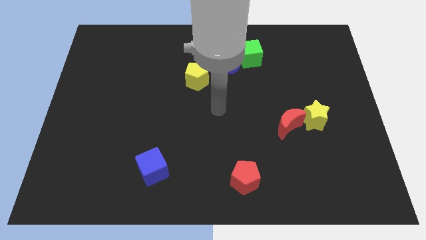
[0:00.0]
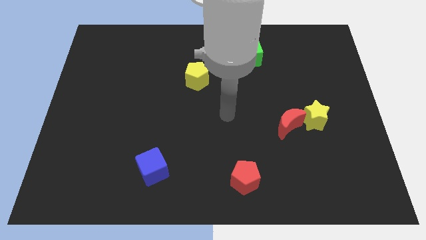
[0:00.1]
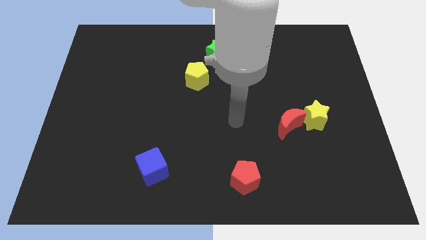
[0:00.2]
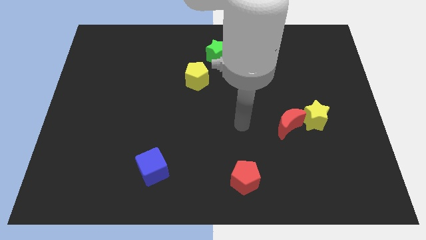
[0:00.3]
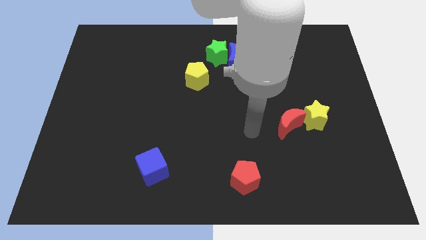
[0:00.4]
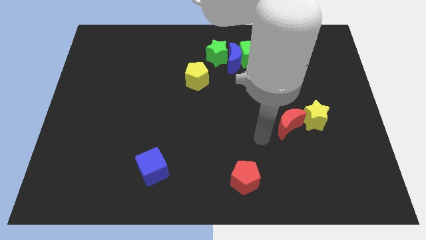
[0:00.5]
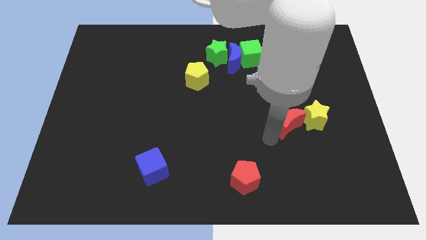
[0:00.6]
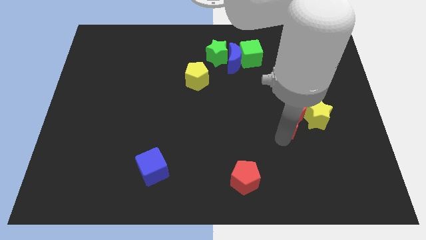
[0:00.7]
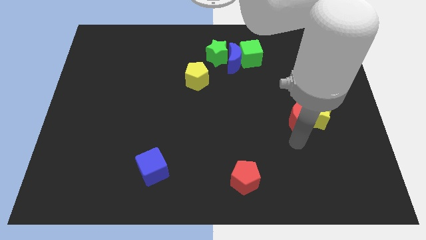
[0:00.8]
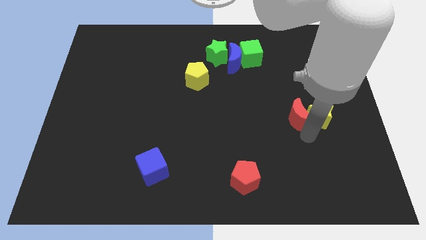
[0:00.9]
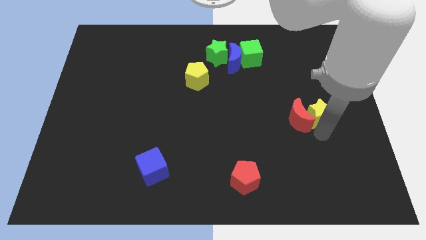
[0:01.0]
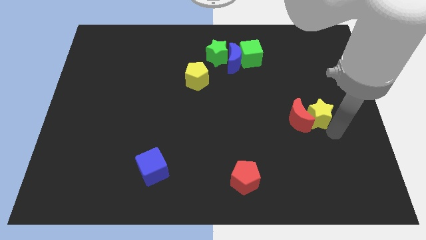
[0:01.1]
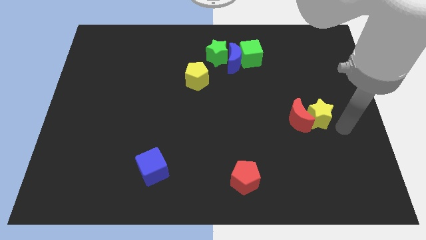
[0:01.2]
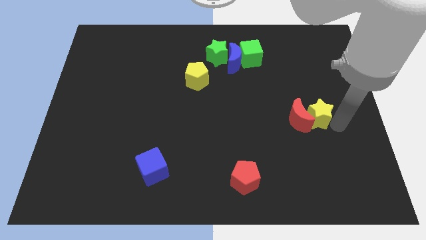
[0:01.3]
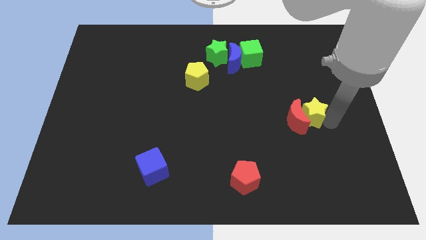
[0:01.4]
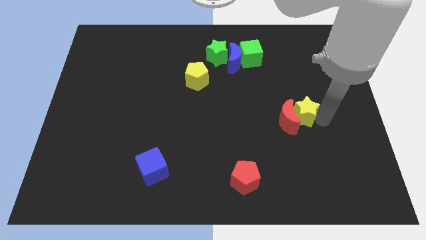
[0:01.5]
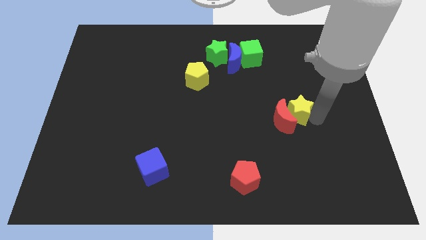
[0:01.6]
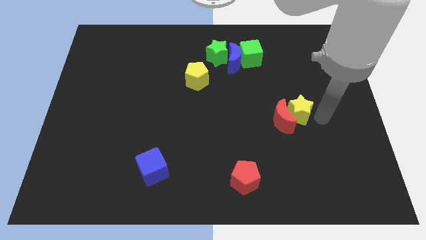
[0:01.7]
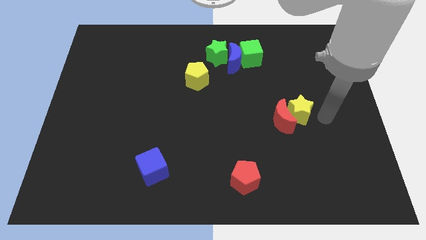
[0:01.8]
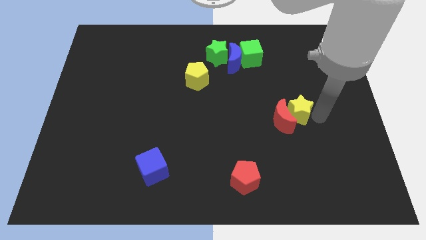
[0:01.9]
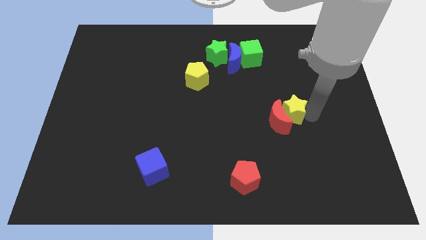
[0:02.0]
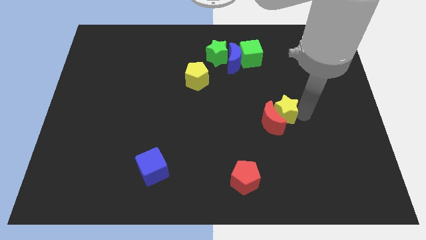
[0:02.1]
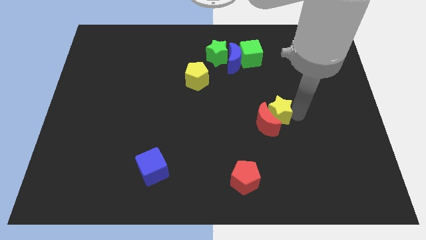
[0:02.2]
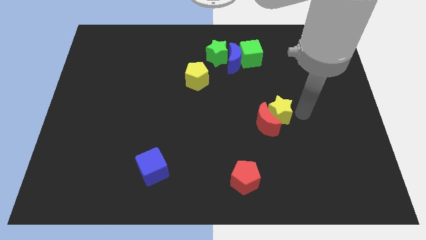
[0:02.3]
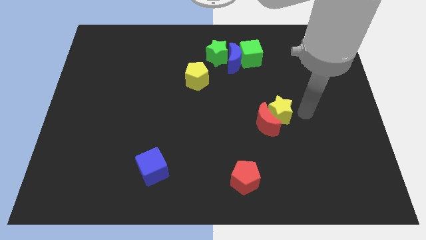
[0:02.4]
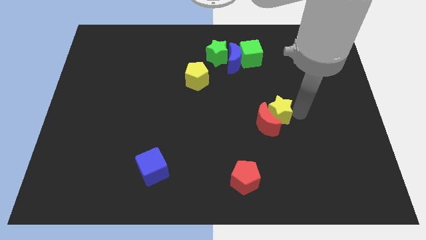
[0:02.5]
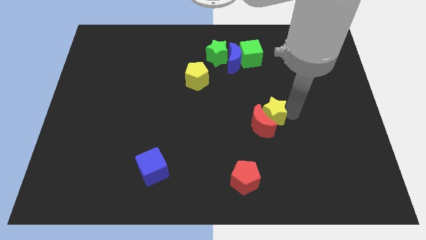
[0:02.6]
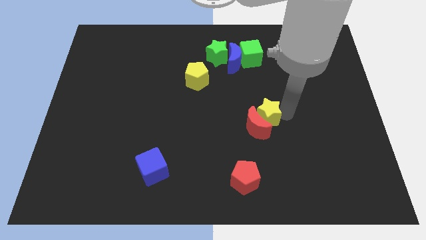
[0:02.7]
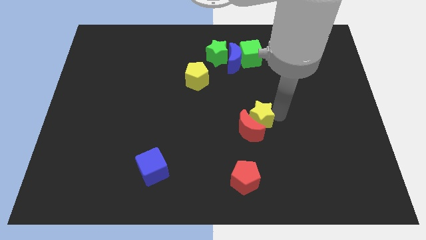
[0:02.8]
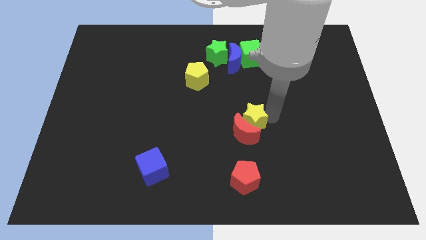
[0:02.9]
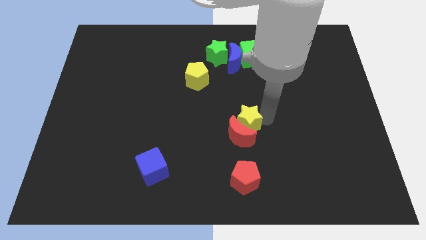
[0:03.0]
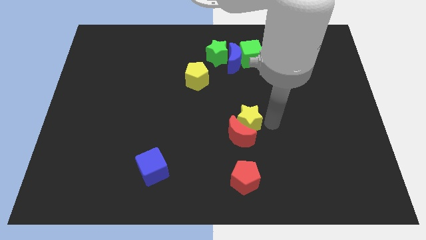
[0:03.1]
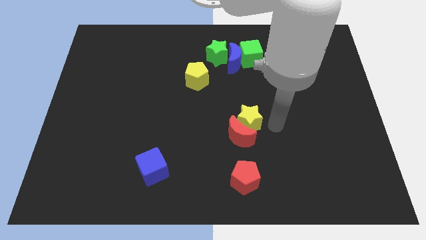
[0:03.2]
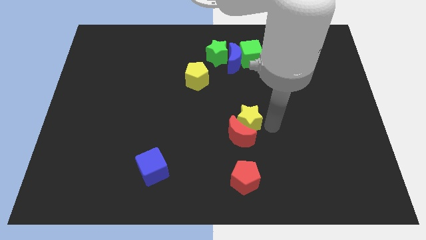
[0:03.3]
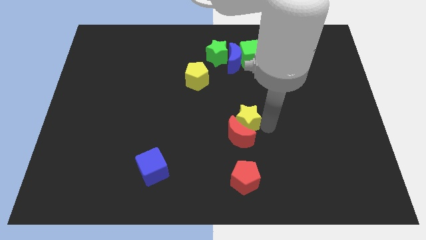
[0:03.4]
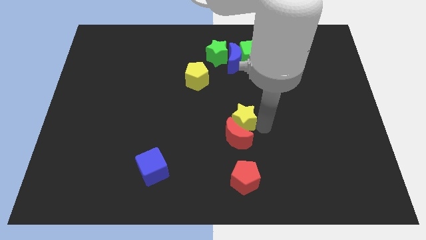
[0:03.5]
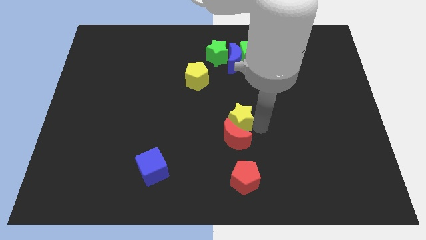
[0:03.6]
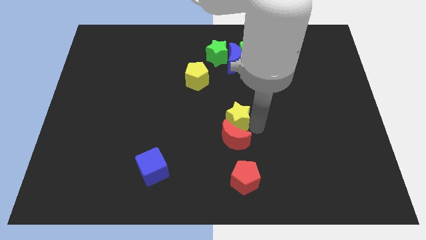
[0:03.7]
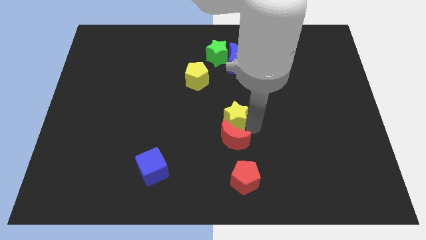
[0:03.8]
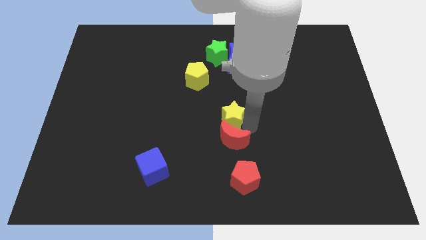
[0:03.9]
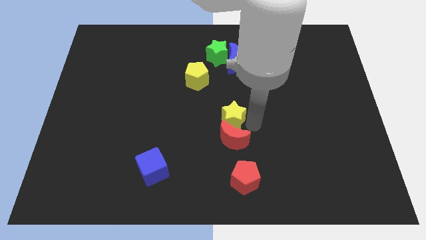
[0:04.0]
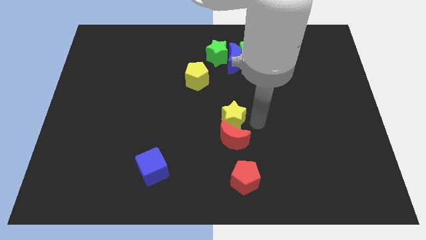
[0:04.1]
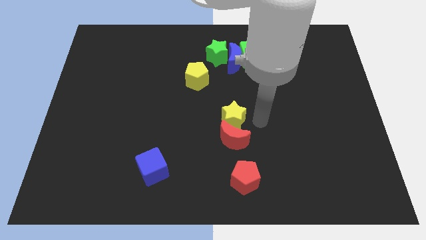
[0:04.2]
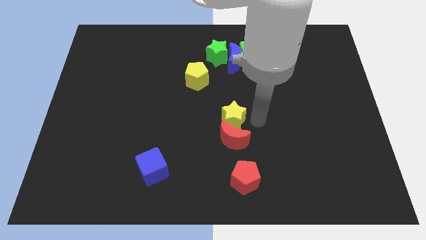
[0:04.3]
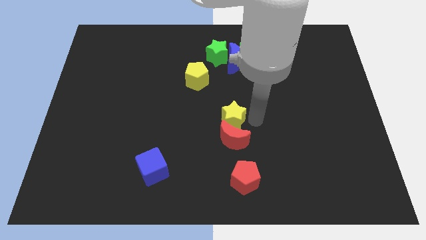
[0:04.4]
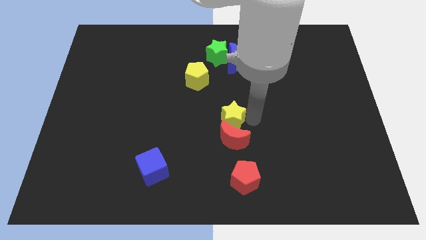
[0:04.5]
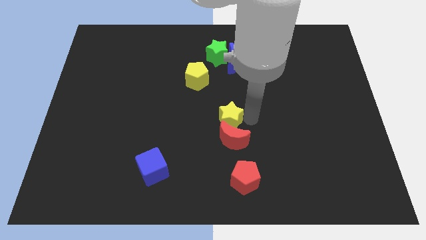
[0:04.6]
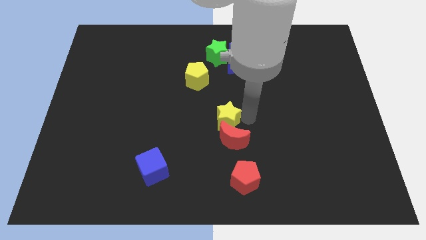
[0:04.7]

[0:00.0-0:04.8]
move the yellow star to the left

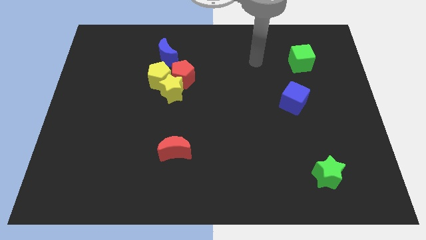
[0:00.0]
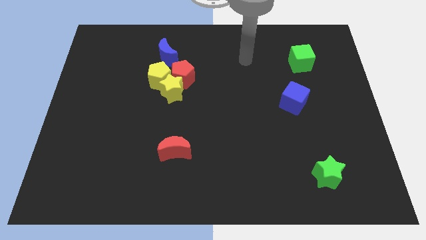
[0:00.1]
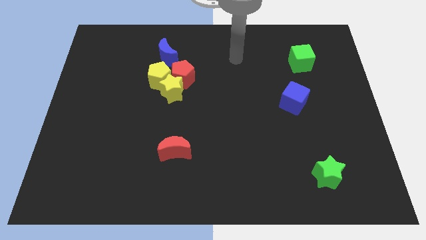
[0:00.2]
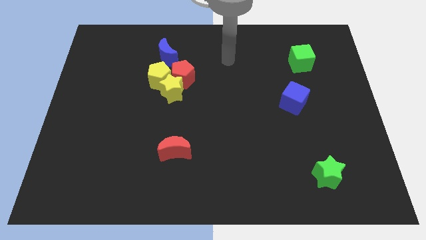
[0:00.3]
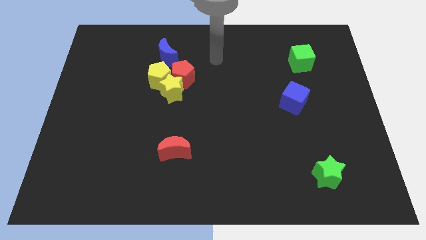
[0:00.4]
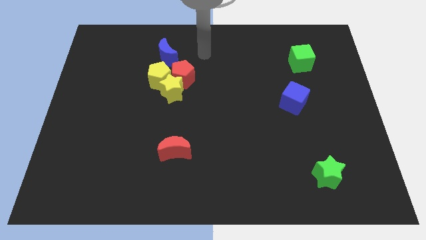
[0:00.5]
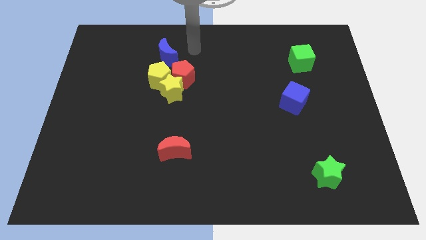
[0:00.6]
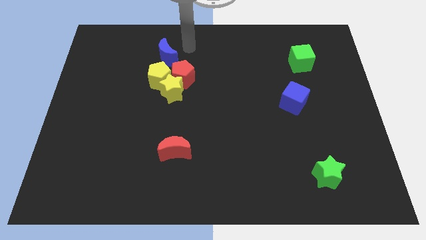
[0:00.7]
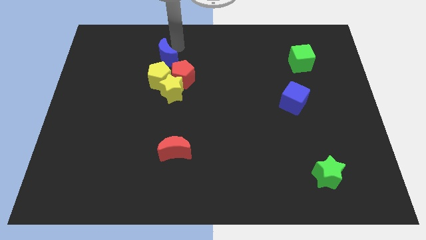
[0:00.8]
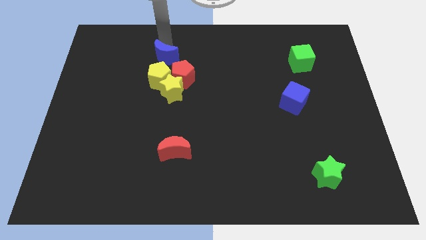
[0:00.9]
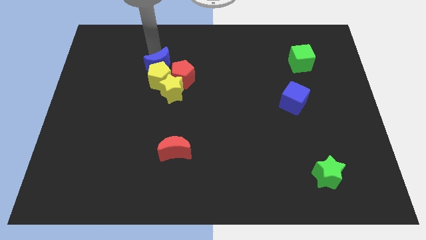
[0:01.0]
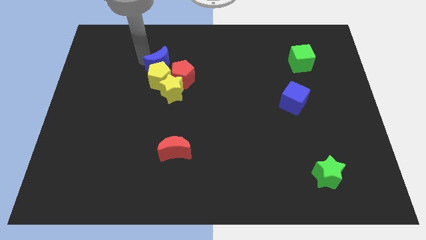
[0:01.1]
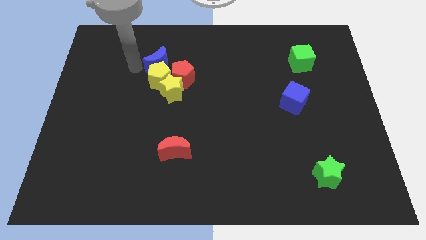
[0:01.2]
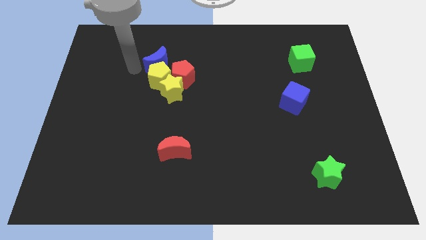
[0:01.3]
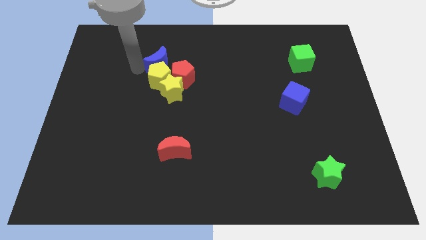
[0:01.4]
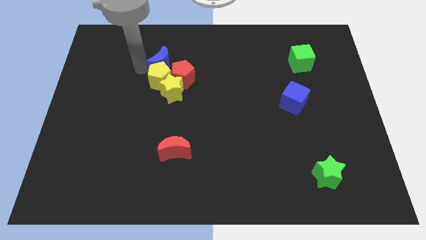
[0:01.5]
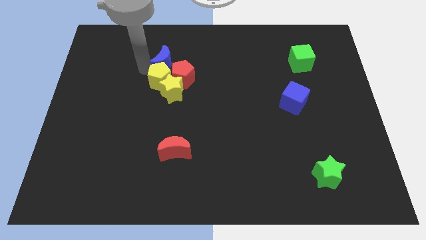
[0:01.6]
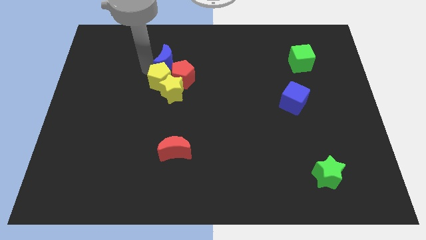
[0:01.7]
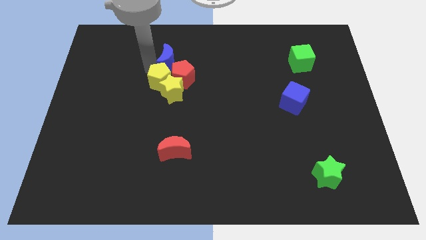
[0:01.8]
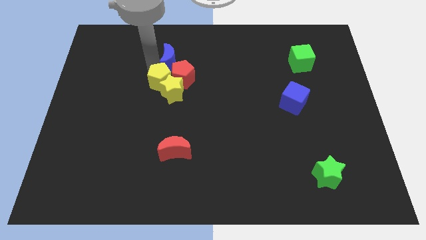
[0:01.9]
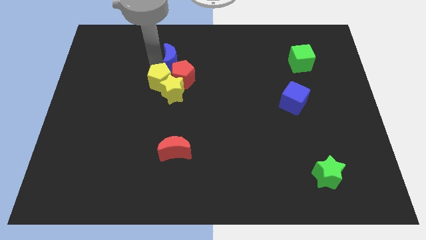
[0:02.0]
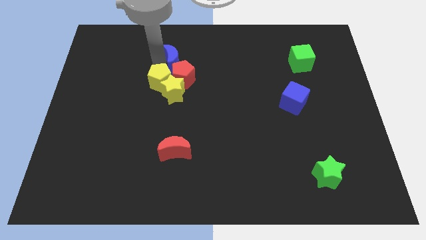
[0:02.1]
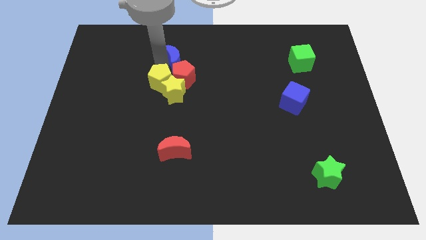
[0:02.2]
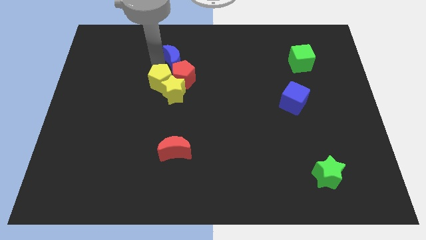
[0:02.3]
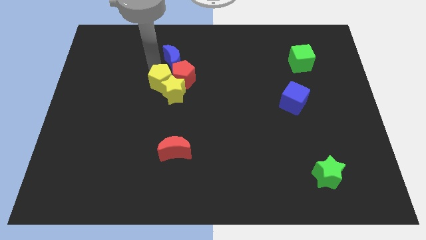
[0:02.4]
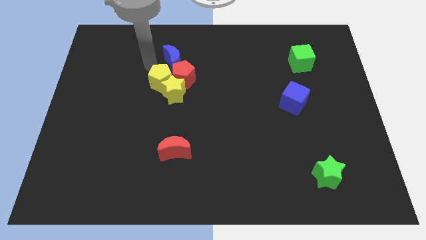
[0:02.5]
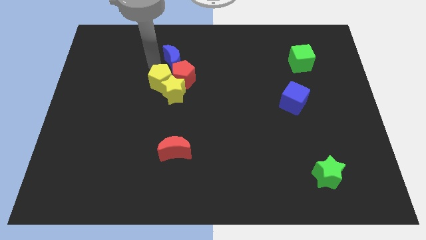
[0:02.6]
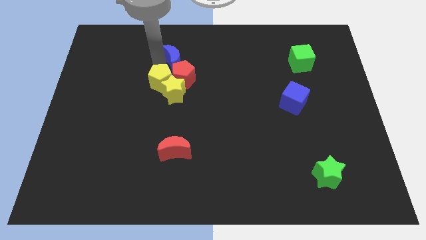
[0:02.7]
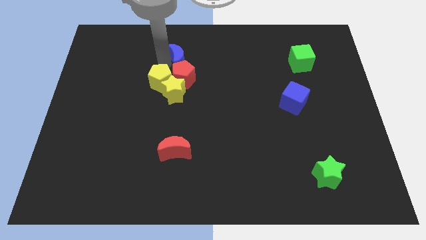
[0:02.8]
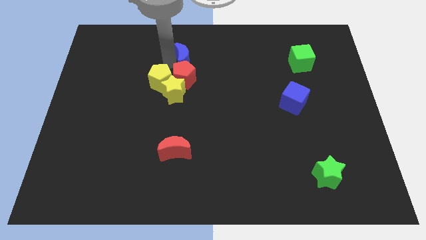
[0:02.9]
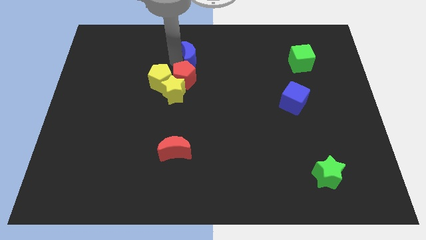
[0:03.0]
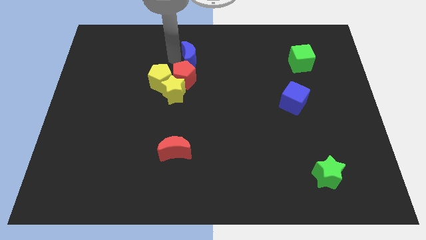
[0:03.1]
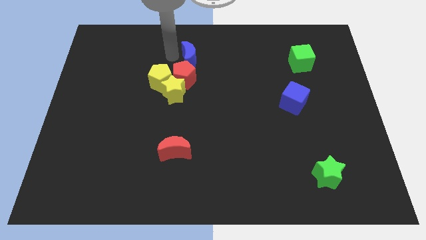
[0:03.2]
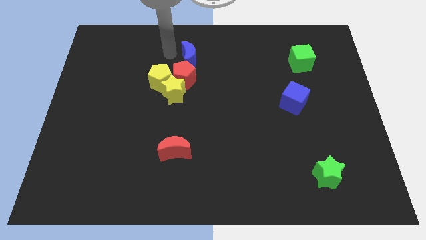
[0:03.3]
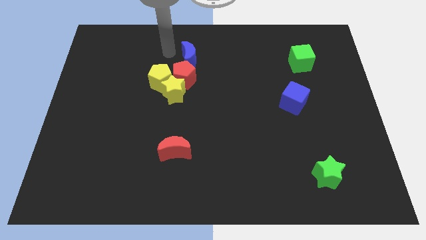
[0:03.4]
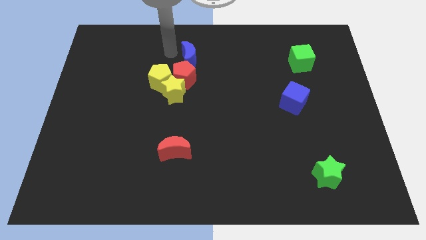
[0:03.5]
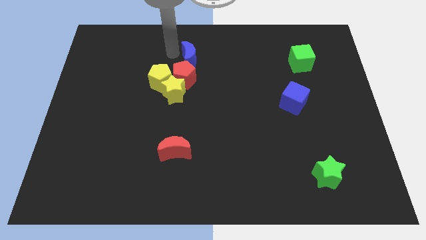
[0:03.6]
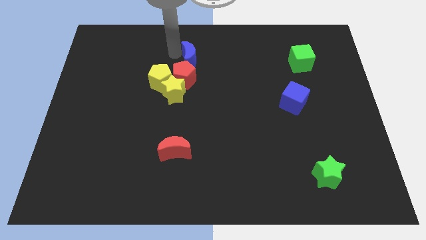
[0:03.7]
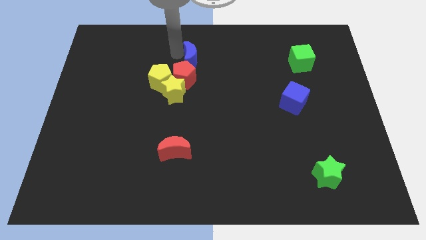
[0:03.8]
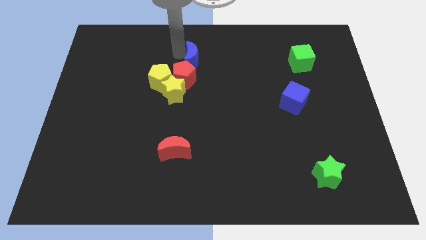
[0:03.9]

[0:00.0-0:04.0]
move the blue moon to the right a bit
